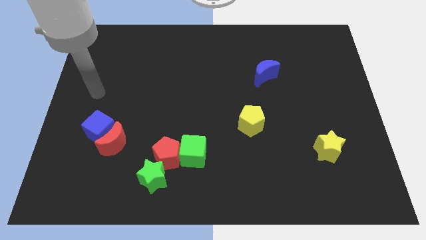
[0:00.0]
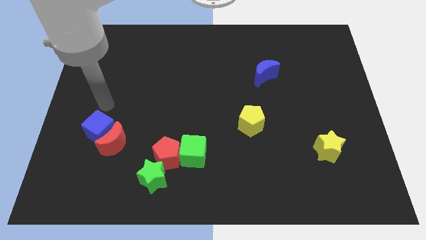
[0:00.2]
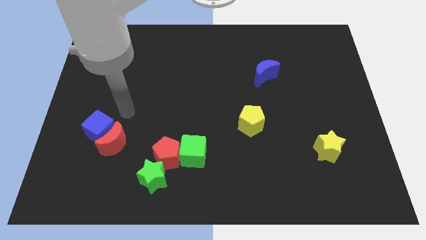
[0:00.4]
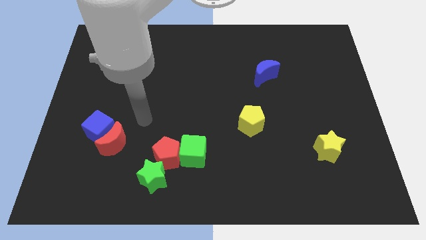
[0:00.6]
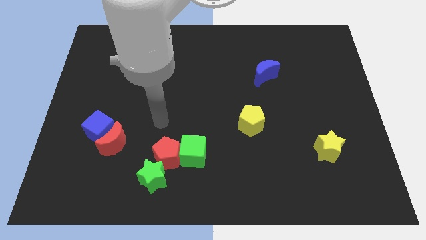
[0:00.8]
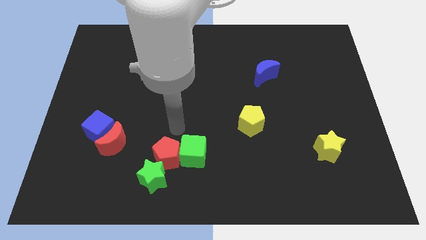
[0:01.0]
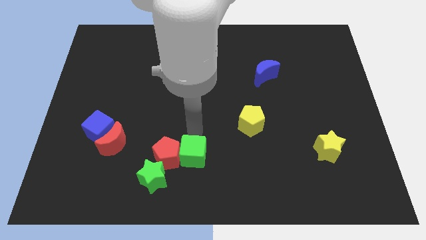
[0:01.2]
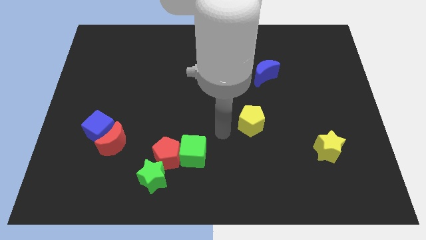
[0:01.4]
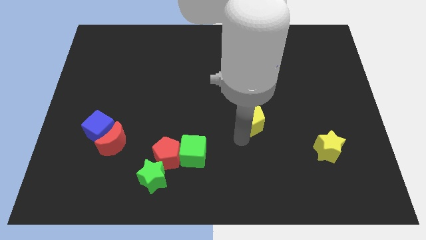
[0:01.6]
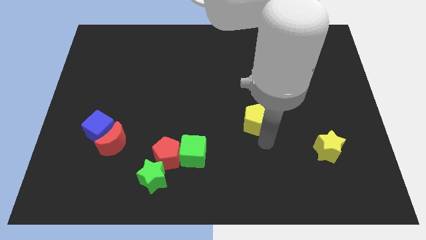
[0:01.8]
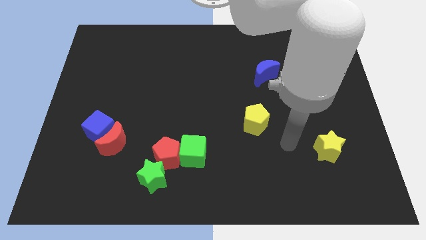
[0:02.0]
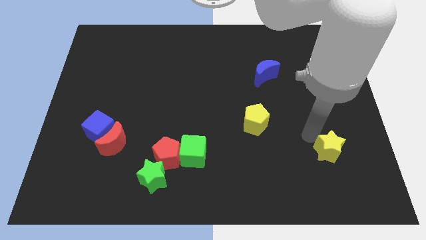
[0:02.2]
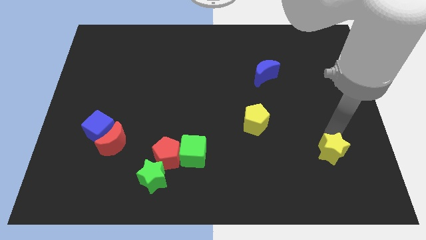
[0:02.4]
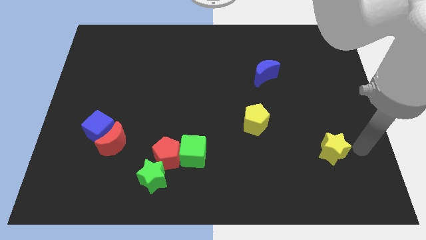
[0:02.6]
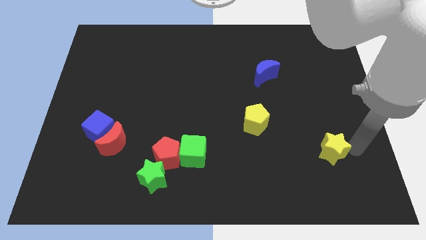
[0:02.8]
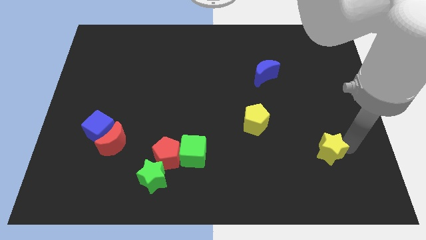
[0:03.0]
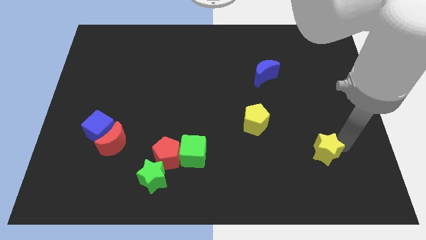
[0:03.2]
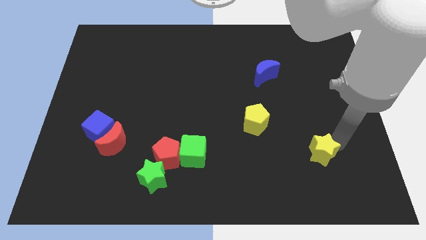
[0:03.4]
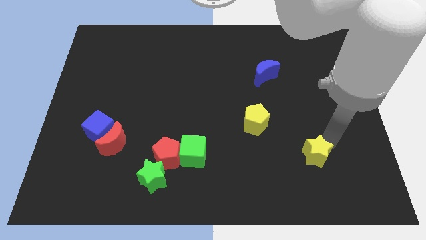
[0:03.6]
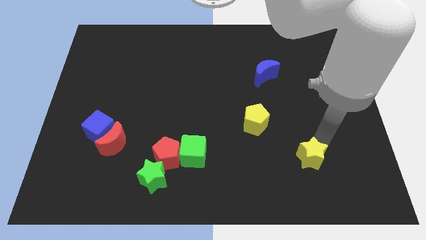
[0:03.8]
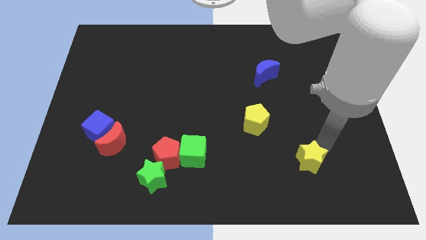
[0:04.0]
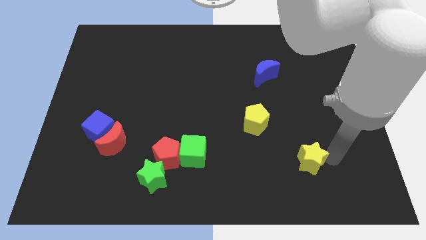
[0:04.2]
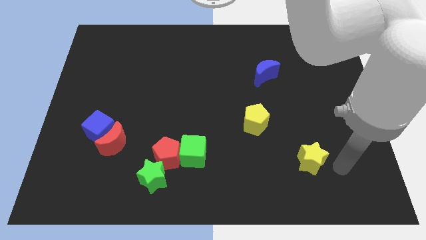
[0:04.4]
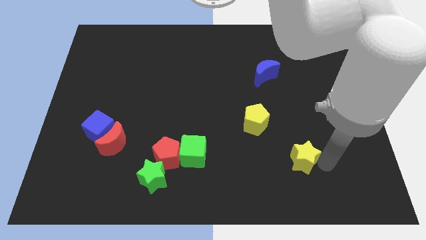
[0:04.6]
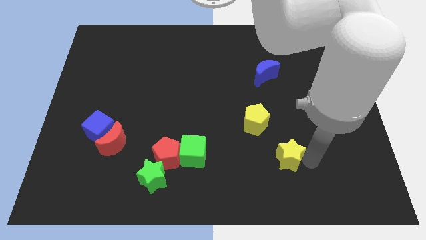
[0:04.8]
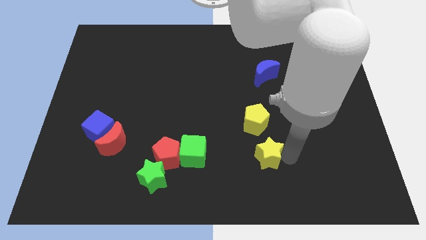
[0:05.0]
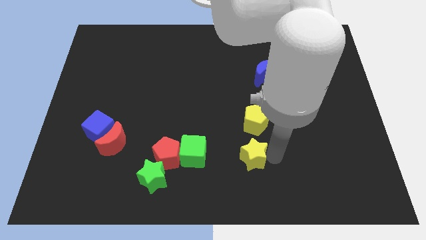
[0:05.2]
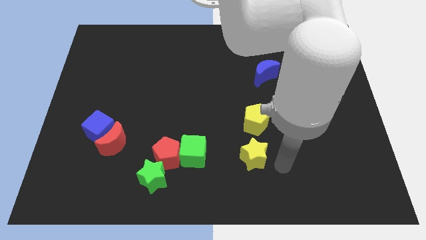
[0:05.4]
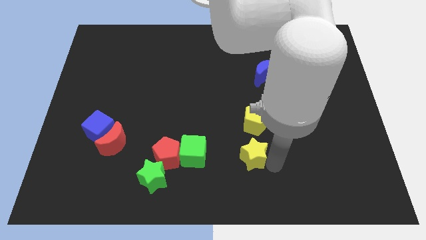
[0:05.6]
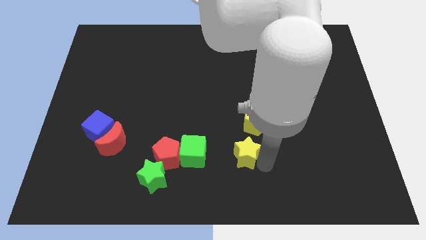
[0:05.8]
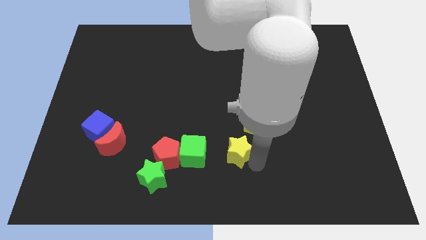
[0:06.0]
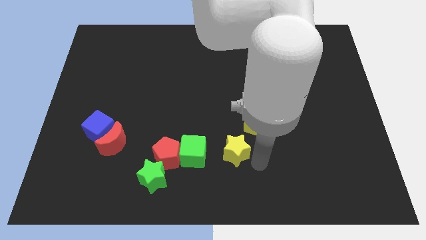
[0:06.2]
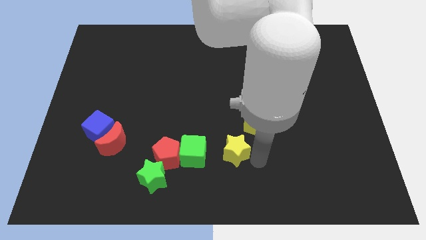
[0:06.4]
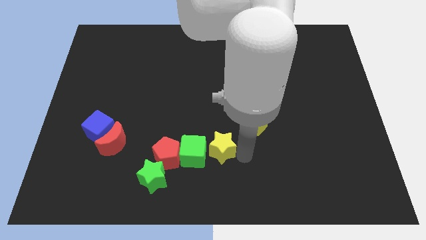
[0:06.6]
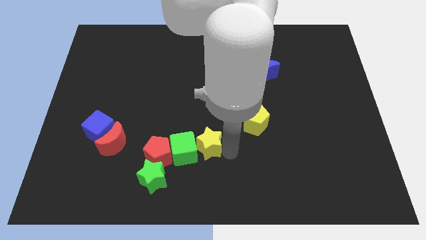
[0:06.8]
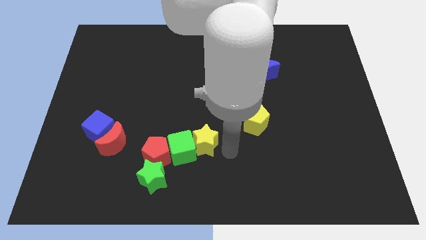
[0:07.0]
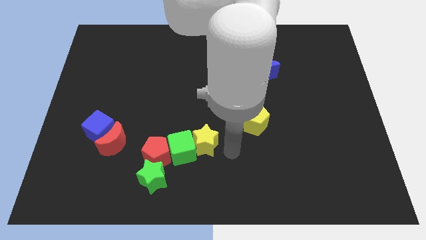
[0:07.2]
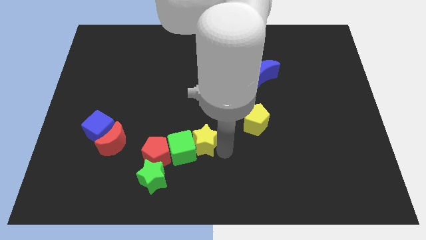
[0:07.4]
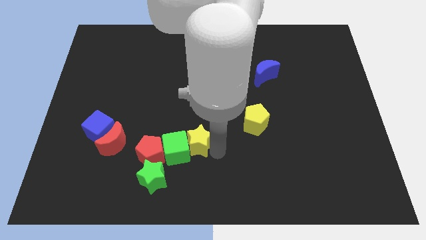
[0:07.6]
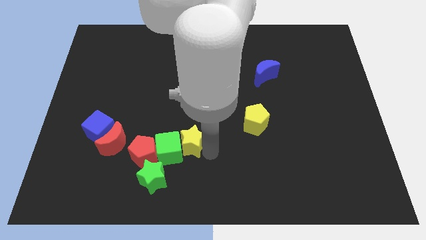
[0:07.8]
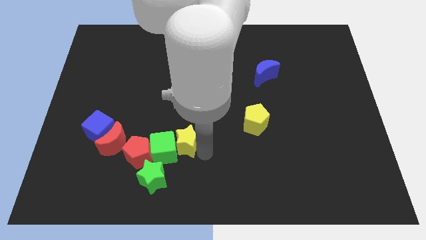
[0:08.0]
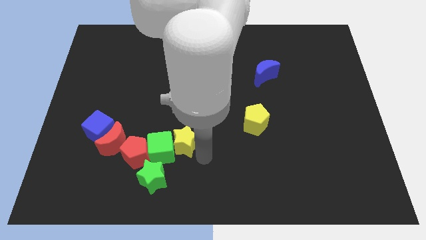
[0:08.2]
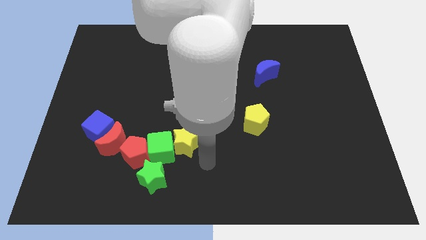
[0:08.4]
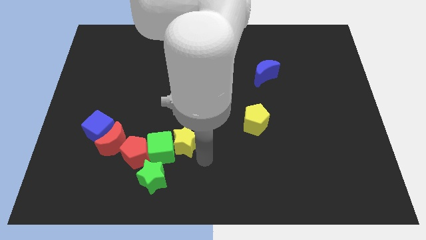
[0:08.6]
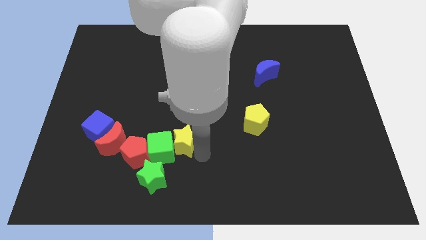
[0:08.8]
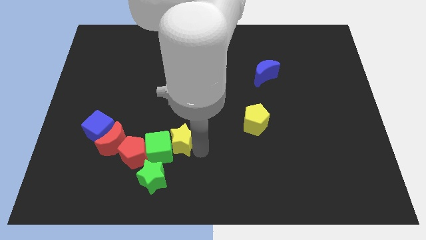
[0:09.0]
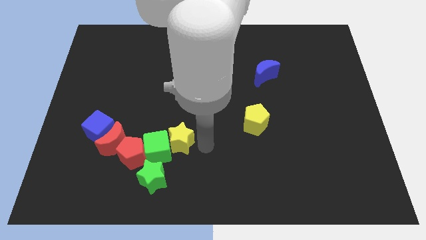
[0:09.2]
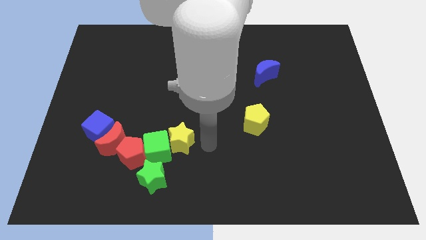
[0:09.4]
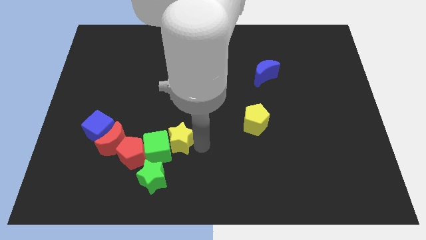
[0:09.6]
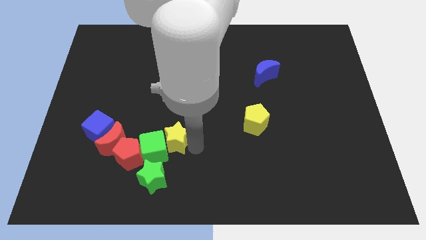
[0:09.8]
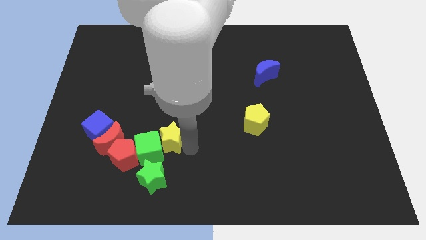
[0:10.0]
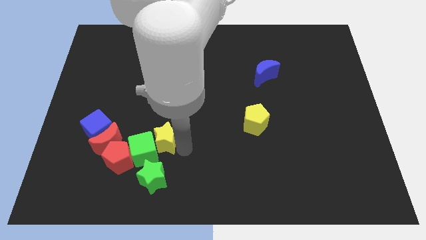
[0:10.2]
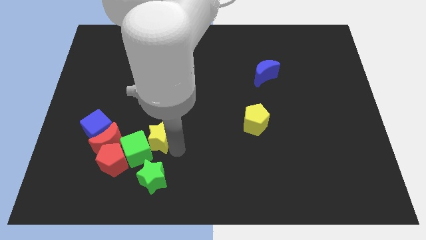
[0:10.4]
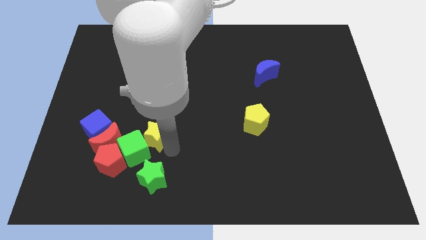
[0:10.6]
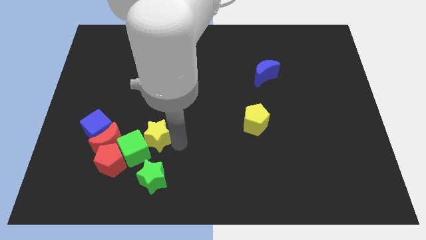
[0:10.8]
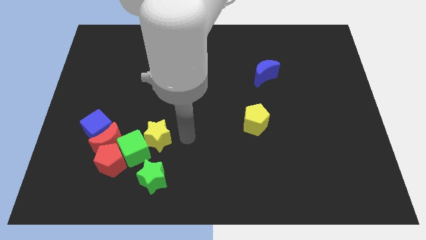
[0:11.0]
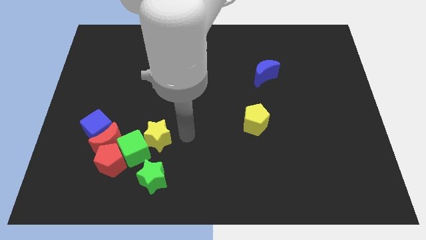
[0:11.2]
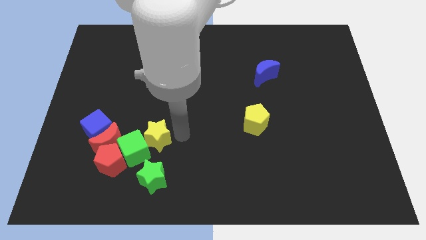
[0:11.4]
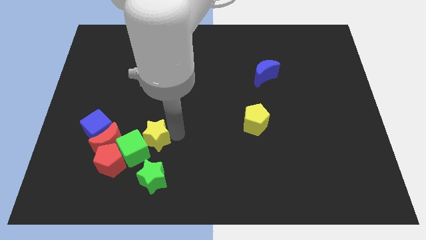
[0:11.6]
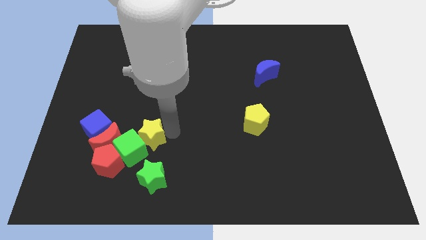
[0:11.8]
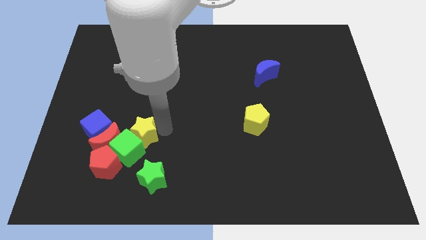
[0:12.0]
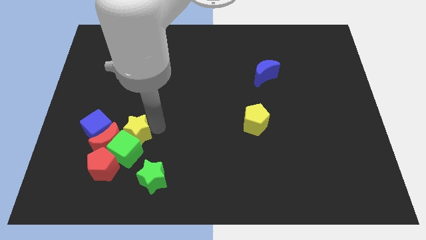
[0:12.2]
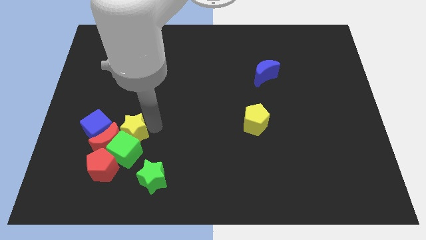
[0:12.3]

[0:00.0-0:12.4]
slide the yellow star towards the red moon

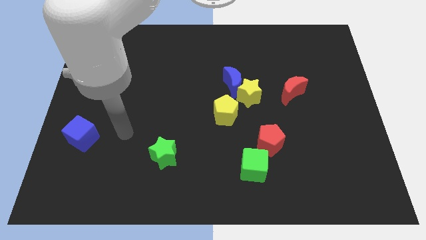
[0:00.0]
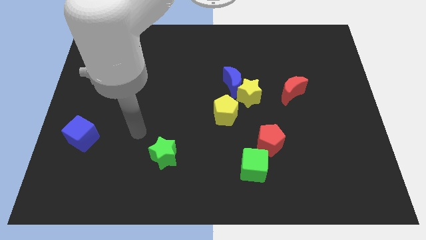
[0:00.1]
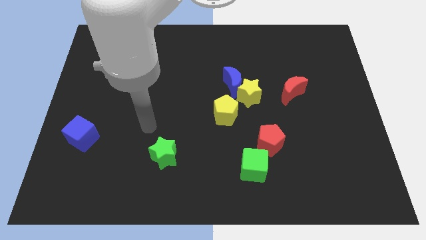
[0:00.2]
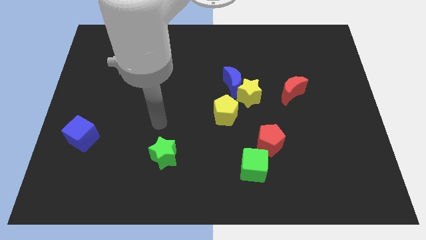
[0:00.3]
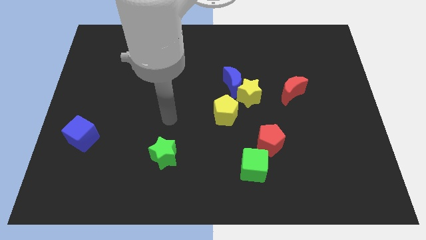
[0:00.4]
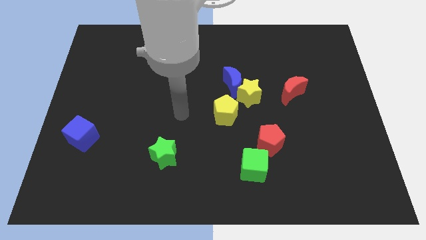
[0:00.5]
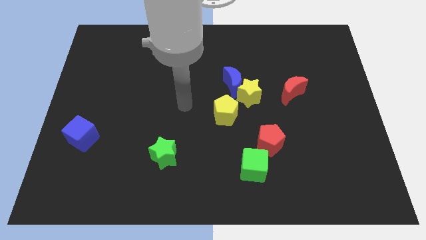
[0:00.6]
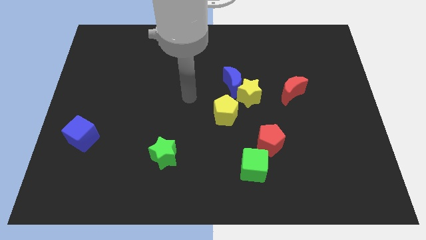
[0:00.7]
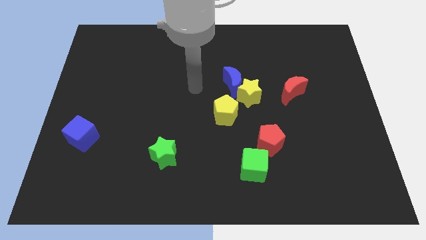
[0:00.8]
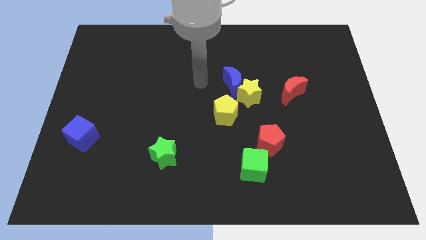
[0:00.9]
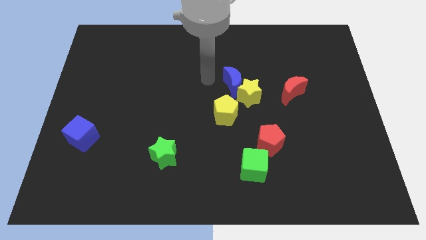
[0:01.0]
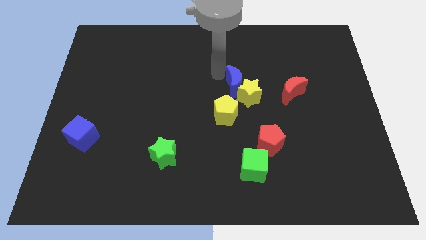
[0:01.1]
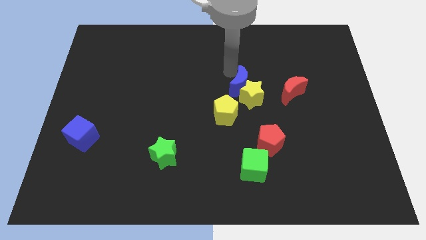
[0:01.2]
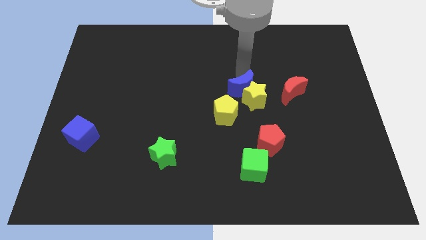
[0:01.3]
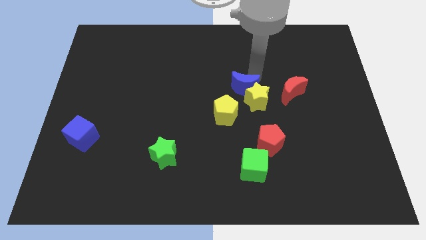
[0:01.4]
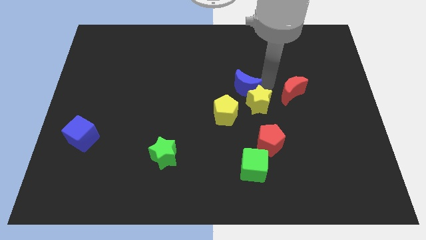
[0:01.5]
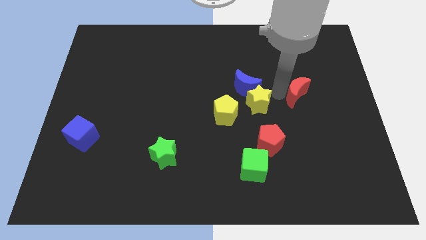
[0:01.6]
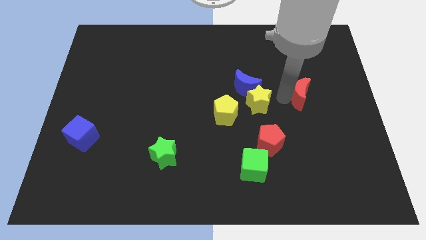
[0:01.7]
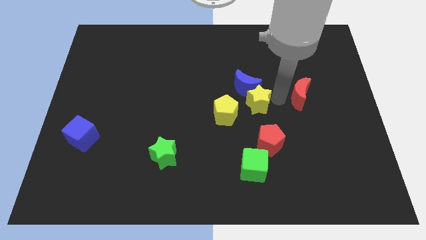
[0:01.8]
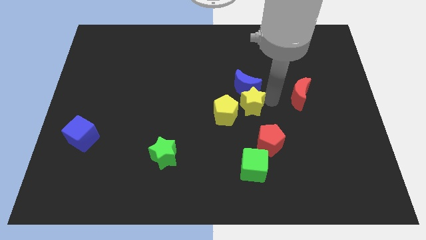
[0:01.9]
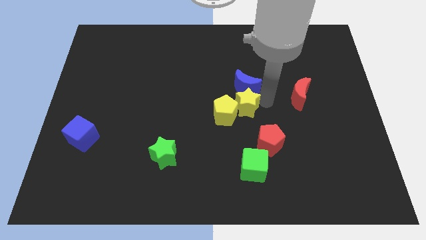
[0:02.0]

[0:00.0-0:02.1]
move the yellow star towards the yellow pentagon
